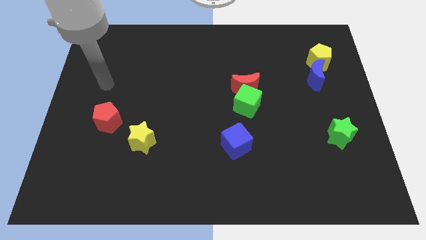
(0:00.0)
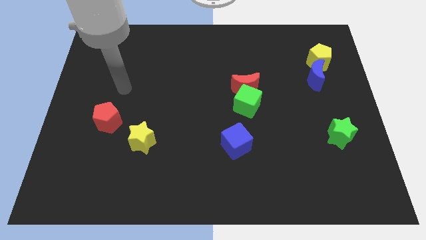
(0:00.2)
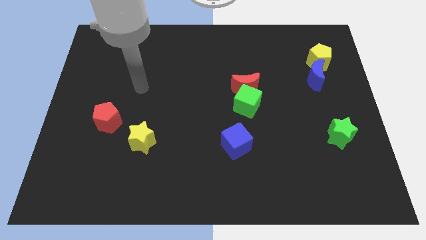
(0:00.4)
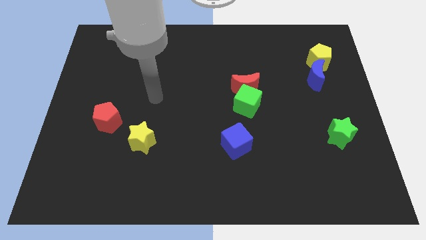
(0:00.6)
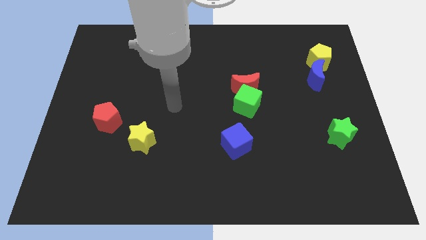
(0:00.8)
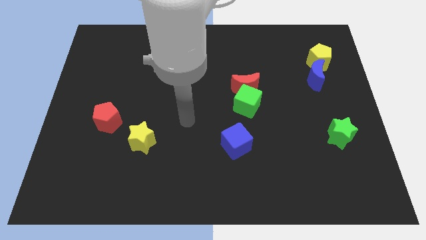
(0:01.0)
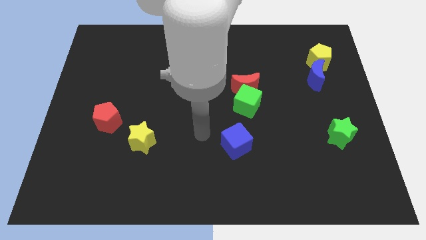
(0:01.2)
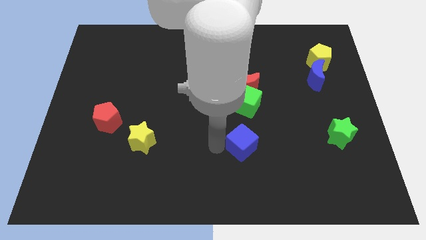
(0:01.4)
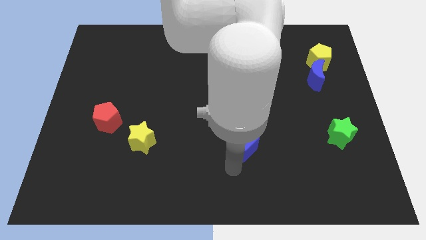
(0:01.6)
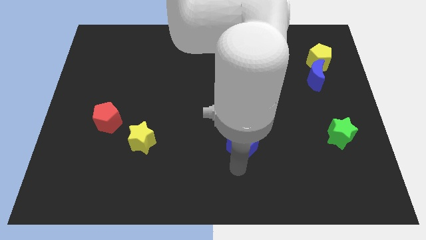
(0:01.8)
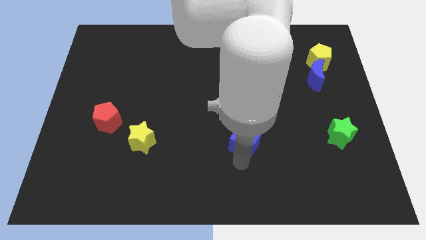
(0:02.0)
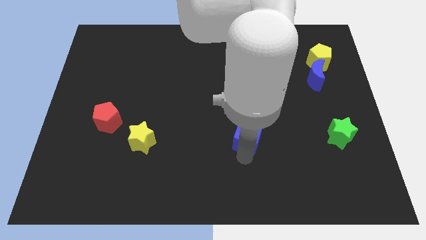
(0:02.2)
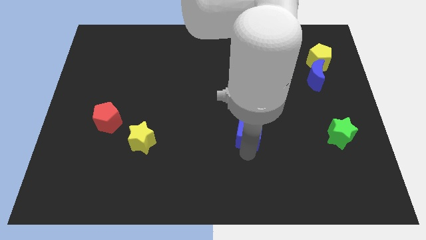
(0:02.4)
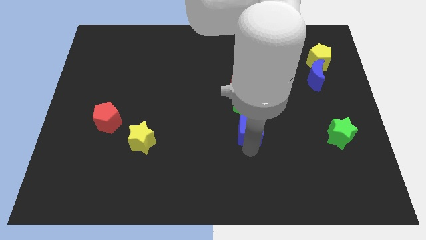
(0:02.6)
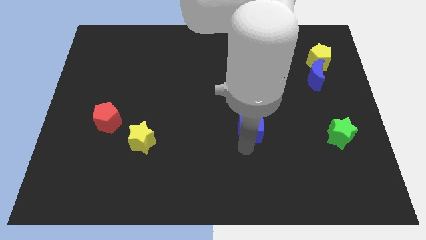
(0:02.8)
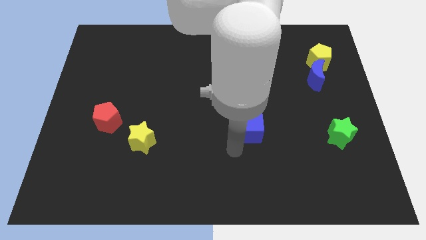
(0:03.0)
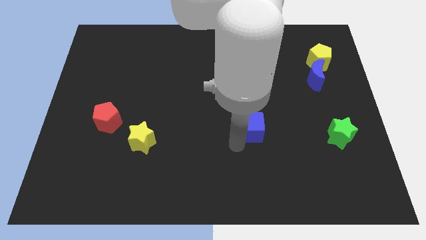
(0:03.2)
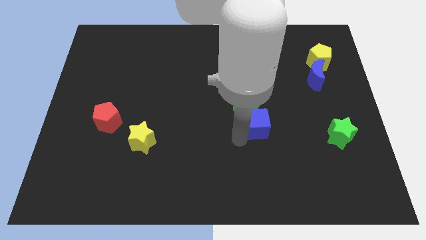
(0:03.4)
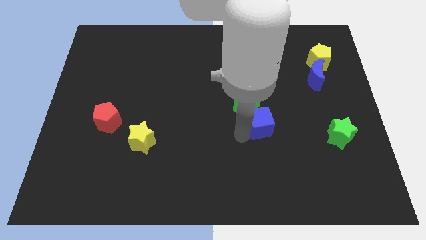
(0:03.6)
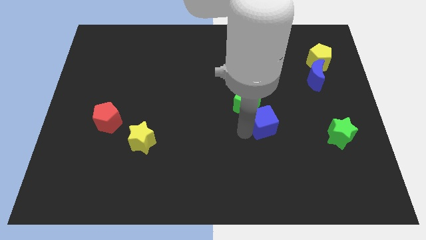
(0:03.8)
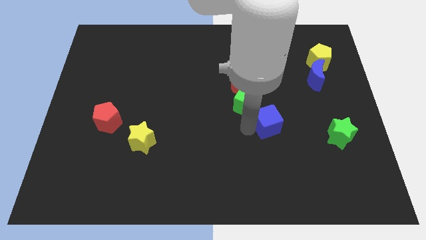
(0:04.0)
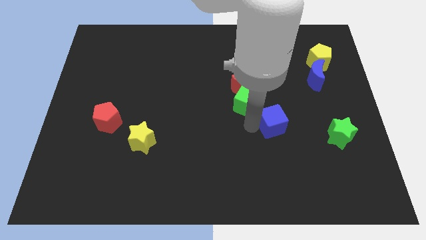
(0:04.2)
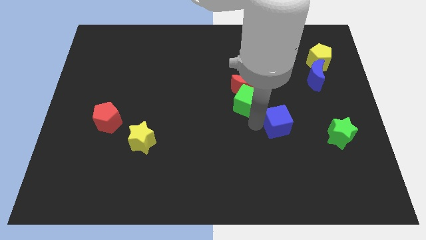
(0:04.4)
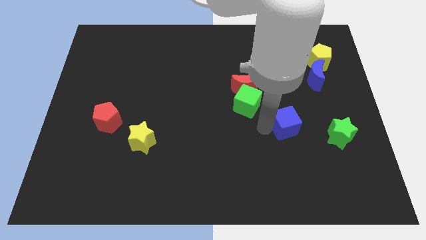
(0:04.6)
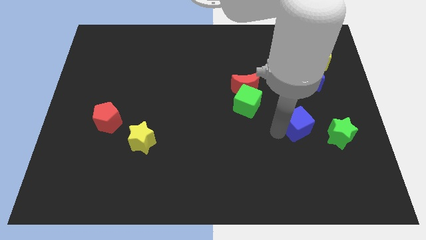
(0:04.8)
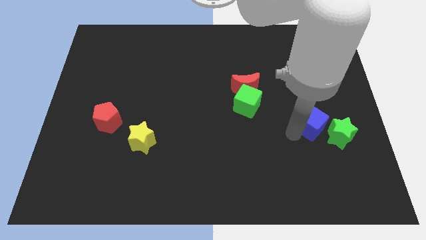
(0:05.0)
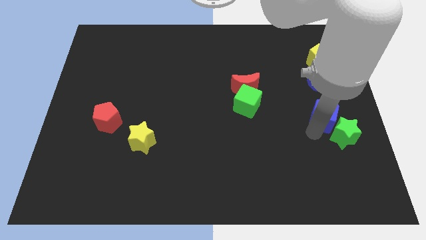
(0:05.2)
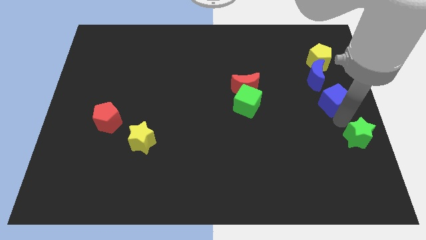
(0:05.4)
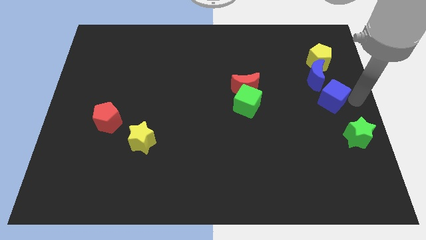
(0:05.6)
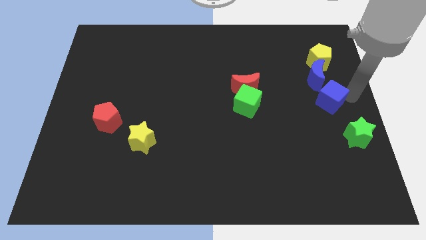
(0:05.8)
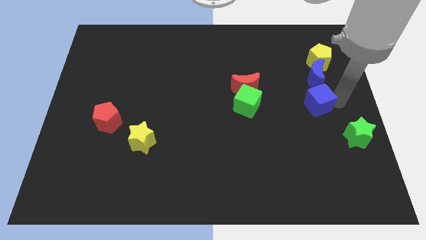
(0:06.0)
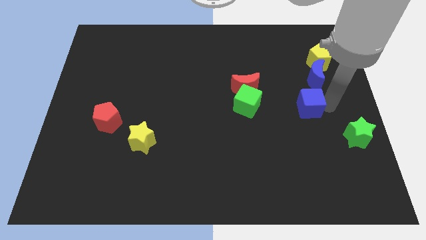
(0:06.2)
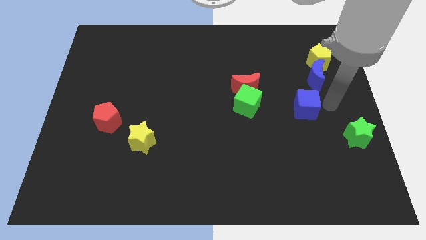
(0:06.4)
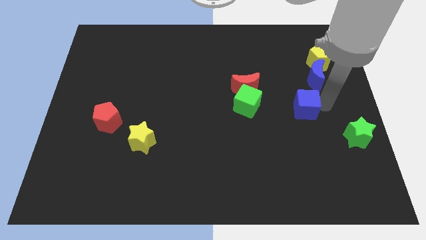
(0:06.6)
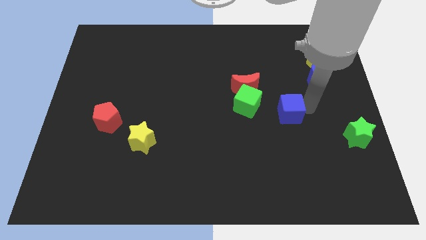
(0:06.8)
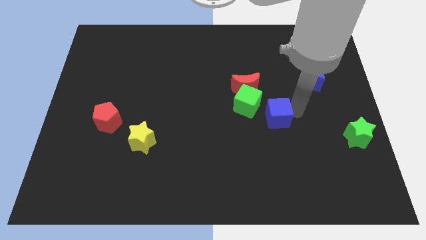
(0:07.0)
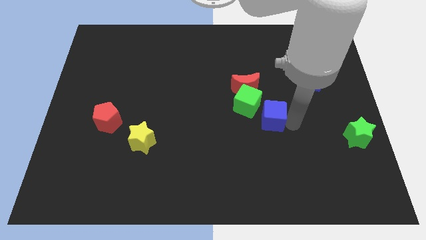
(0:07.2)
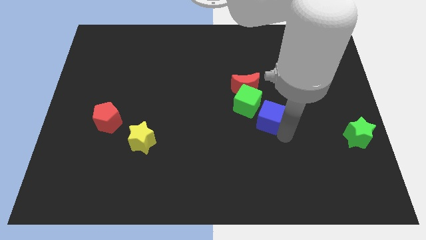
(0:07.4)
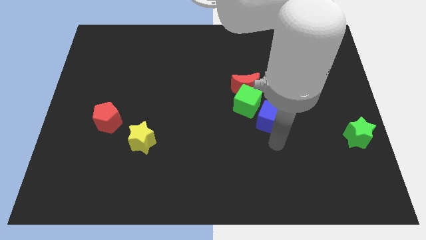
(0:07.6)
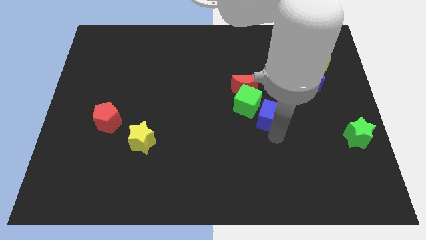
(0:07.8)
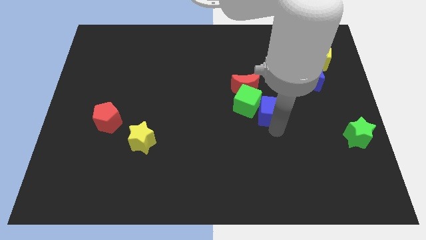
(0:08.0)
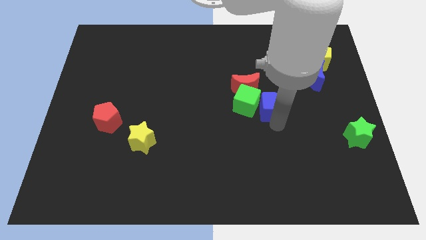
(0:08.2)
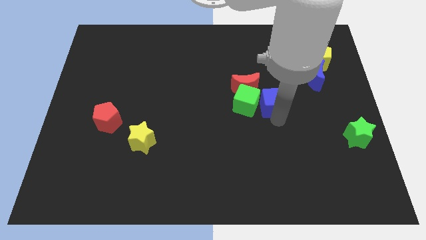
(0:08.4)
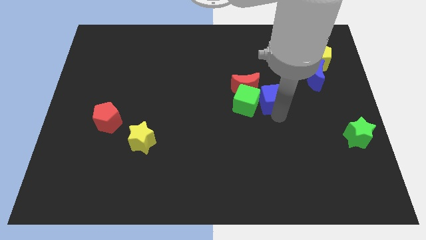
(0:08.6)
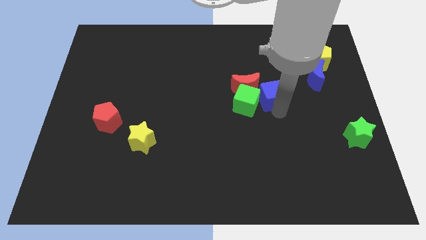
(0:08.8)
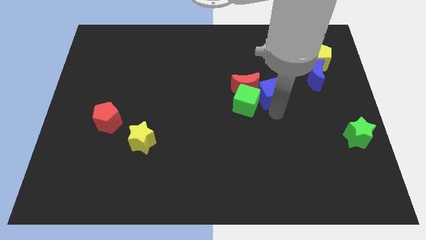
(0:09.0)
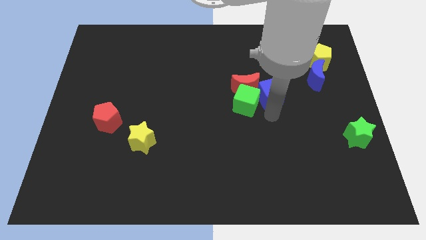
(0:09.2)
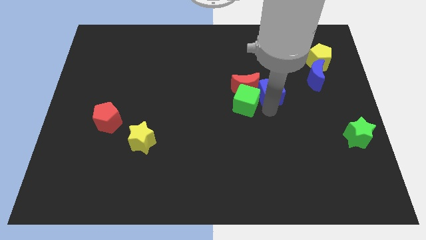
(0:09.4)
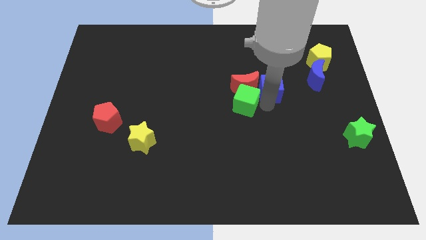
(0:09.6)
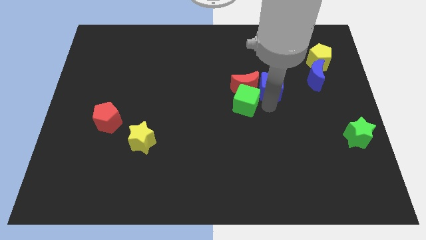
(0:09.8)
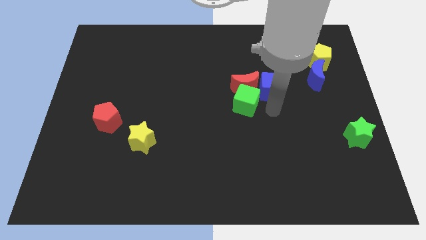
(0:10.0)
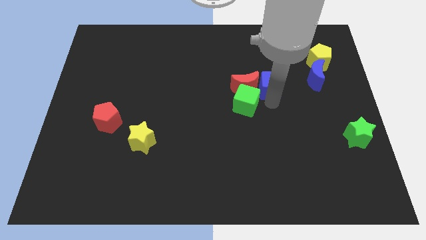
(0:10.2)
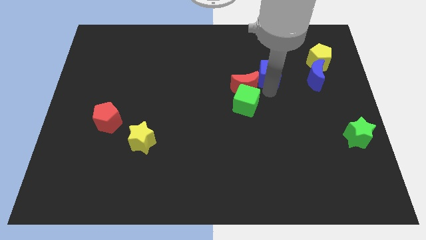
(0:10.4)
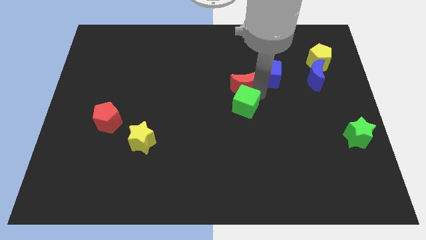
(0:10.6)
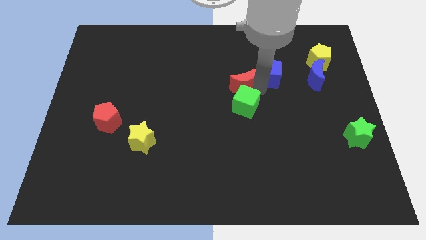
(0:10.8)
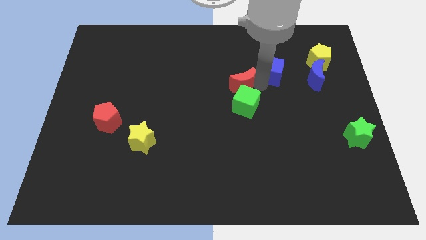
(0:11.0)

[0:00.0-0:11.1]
move the blue cube to the left side of the yellow pentagon

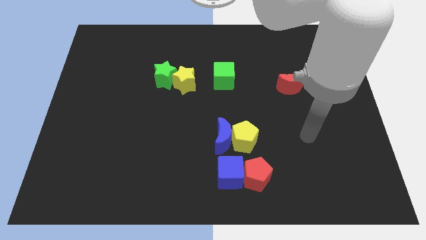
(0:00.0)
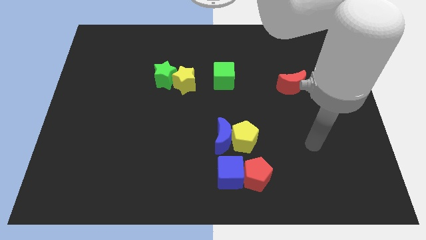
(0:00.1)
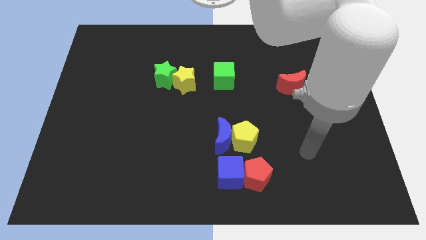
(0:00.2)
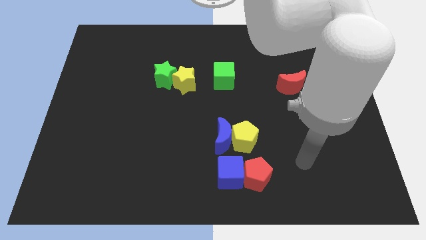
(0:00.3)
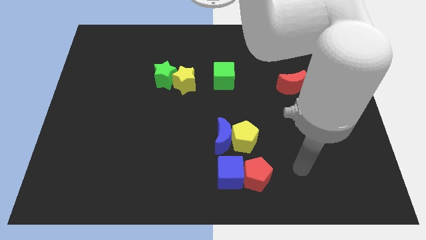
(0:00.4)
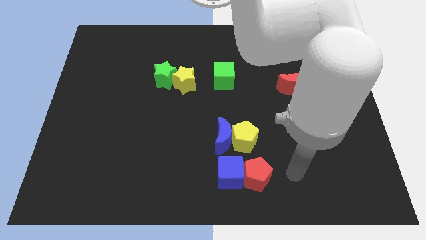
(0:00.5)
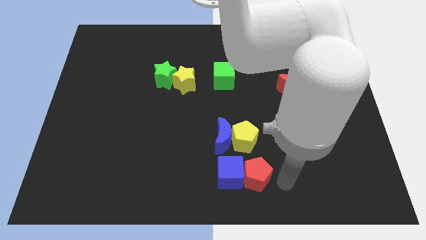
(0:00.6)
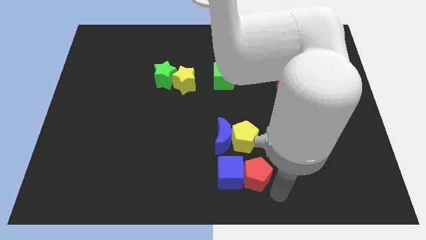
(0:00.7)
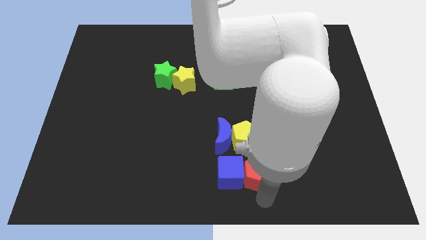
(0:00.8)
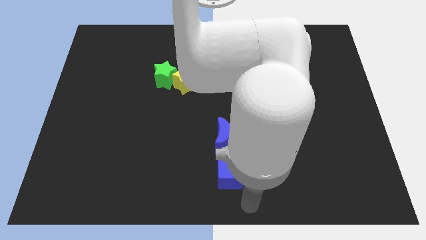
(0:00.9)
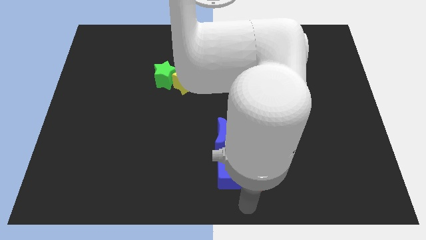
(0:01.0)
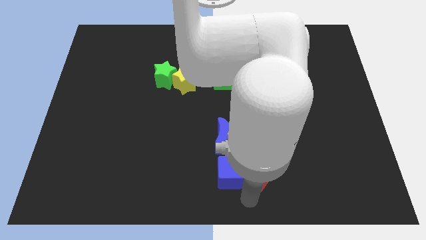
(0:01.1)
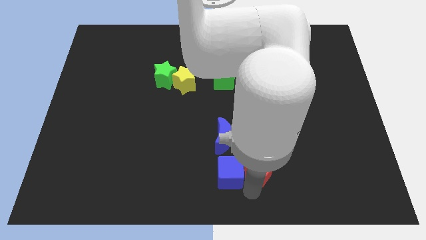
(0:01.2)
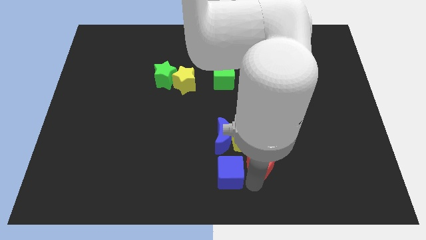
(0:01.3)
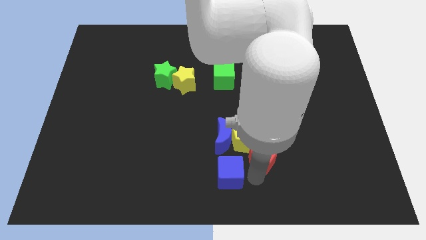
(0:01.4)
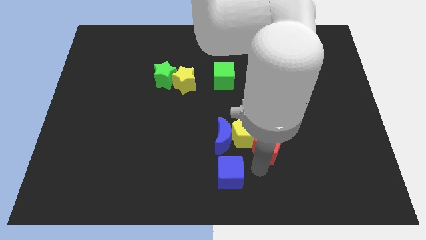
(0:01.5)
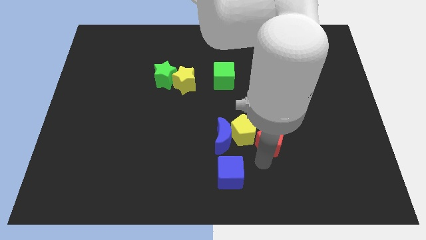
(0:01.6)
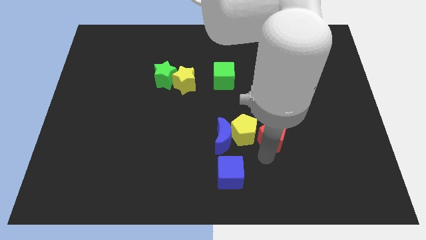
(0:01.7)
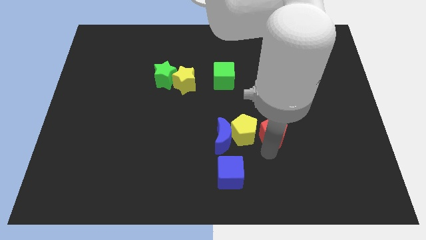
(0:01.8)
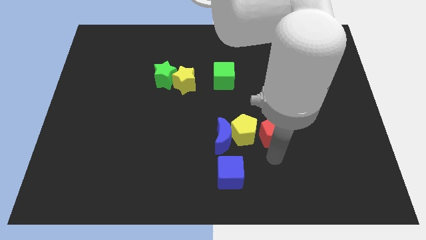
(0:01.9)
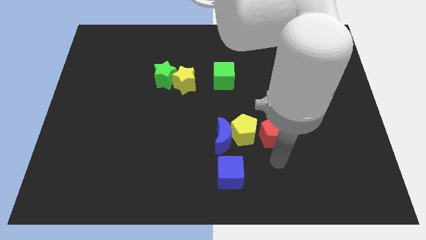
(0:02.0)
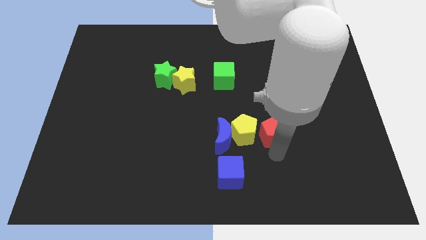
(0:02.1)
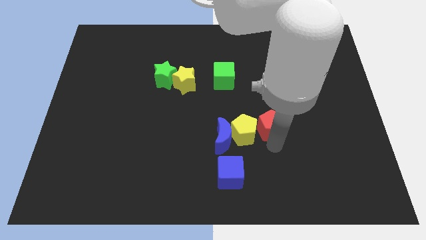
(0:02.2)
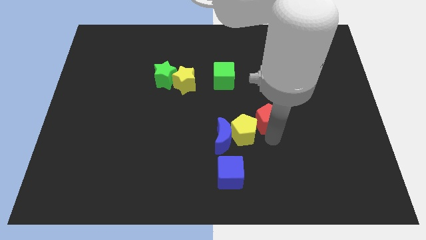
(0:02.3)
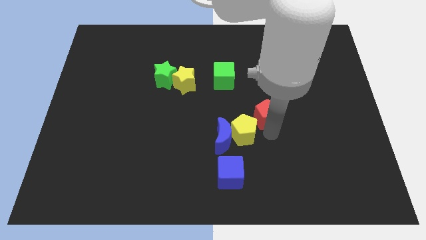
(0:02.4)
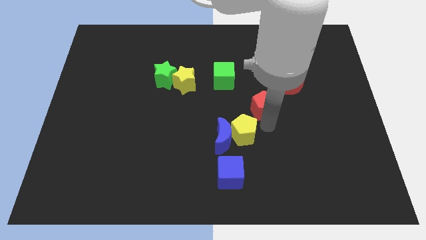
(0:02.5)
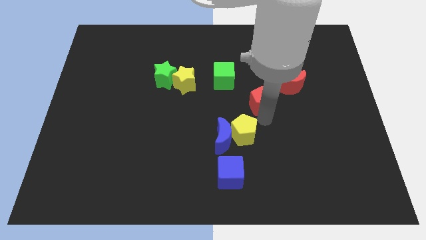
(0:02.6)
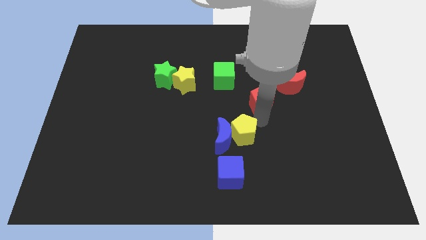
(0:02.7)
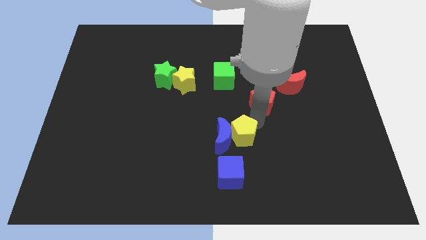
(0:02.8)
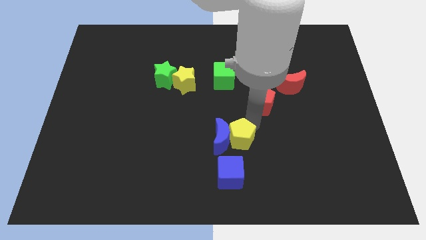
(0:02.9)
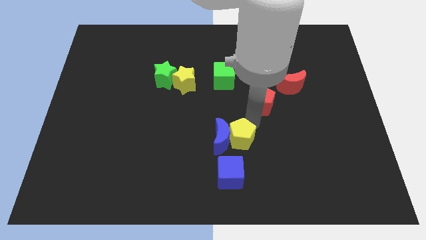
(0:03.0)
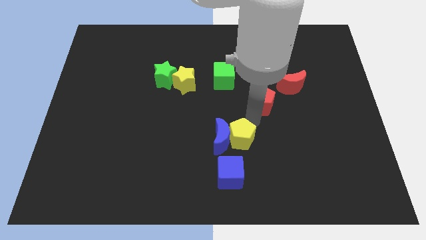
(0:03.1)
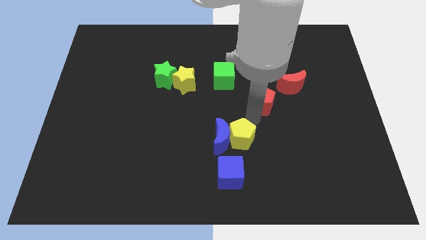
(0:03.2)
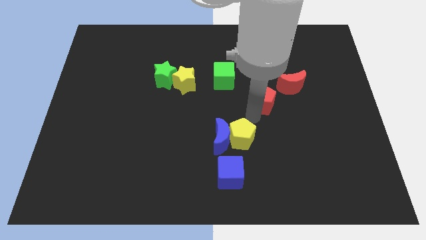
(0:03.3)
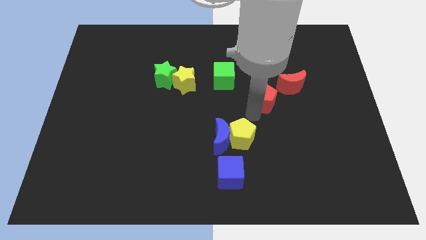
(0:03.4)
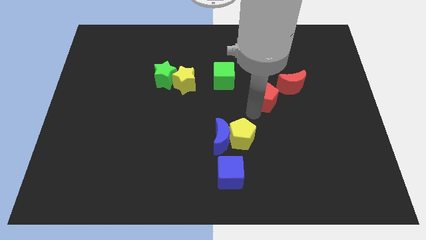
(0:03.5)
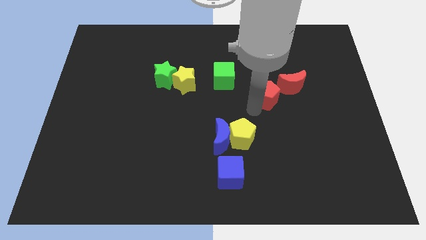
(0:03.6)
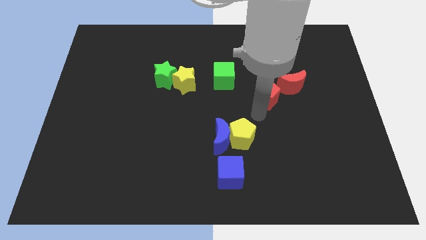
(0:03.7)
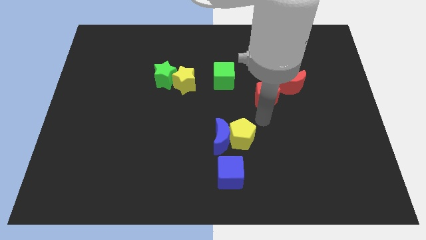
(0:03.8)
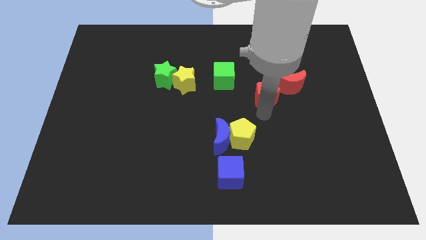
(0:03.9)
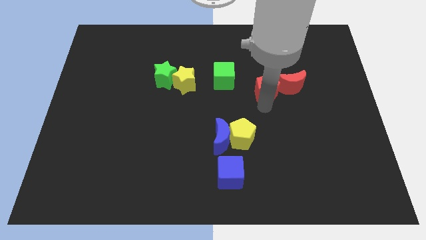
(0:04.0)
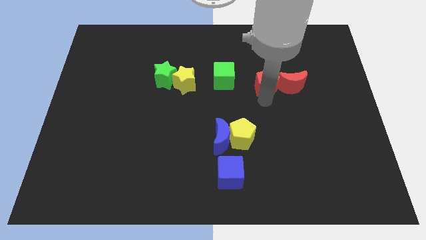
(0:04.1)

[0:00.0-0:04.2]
slide the red pentagon to the top left of the red moon
